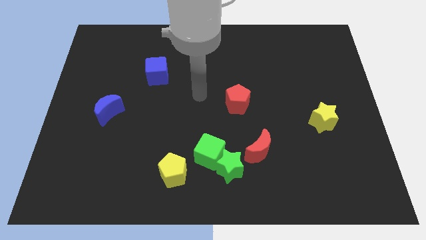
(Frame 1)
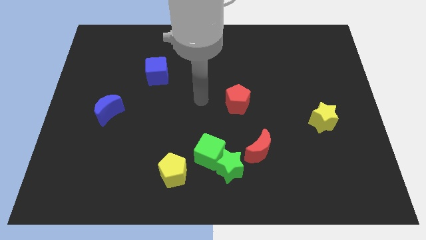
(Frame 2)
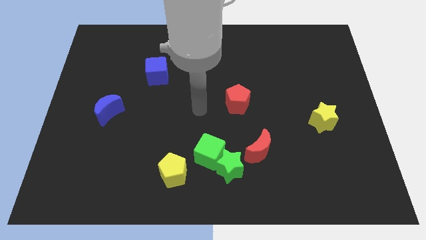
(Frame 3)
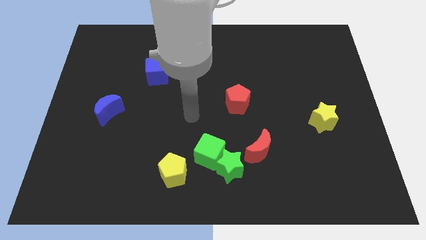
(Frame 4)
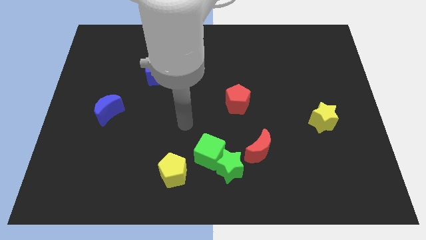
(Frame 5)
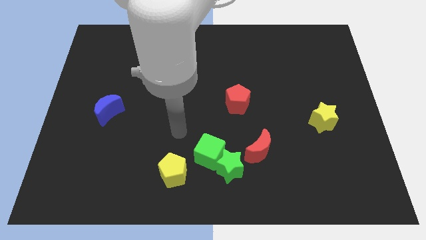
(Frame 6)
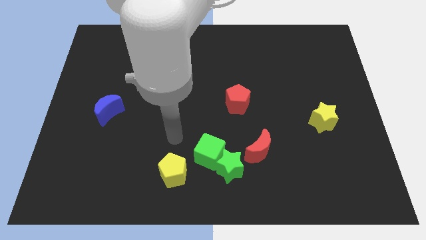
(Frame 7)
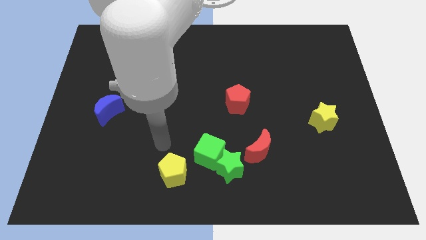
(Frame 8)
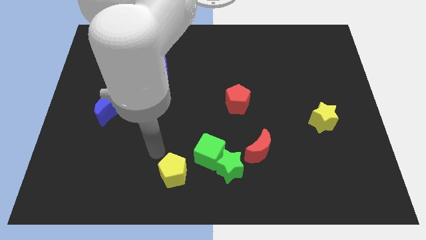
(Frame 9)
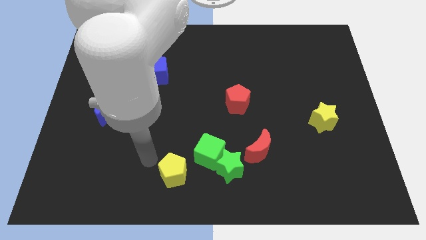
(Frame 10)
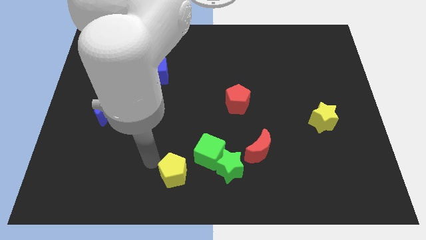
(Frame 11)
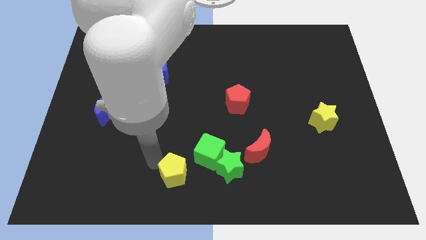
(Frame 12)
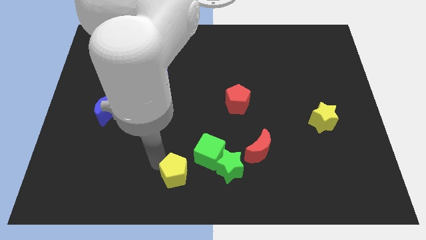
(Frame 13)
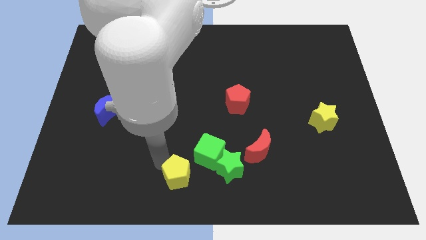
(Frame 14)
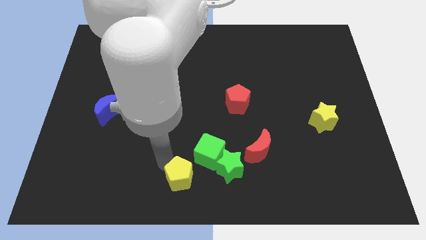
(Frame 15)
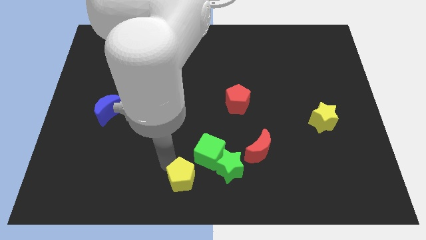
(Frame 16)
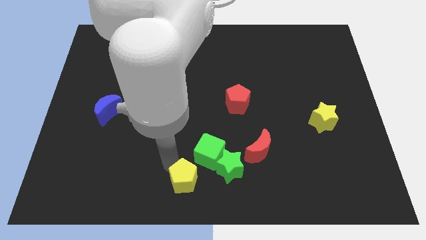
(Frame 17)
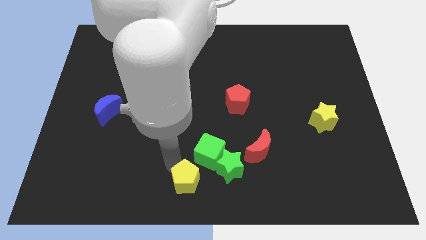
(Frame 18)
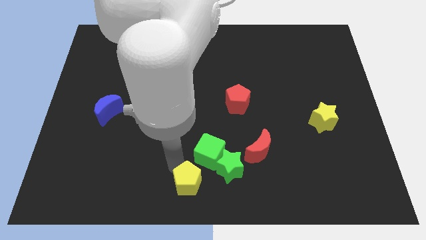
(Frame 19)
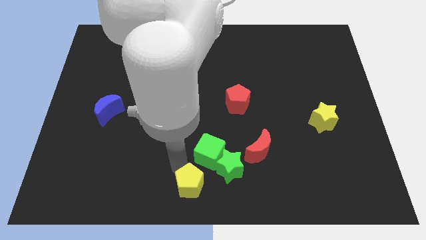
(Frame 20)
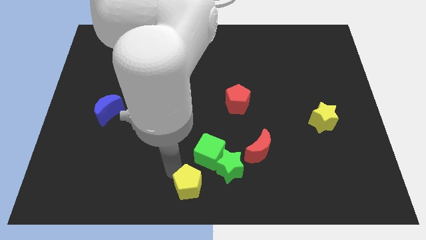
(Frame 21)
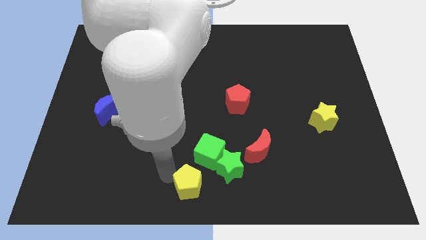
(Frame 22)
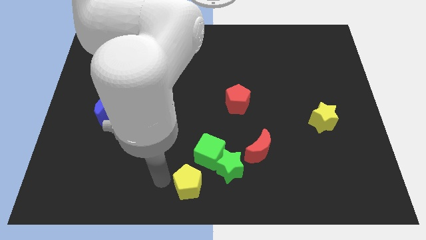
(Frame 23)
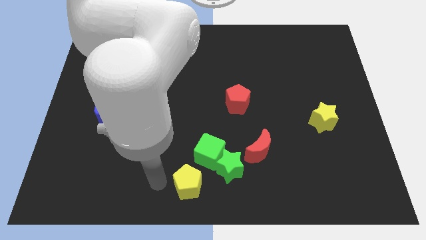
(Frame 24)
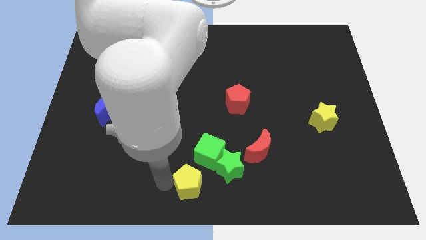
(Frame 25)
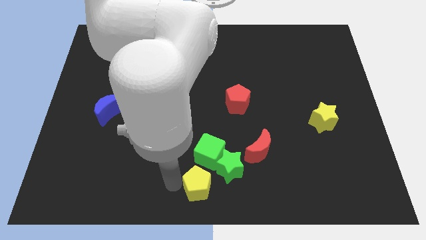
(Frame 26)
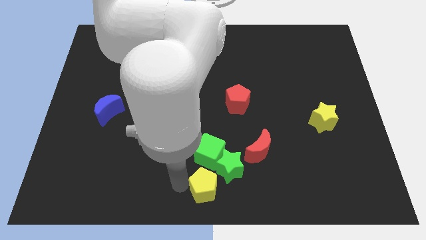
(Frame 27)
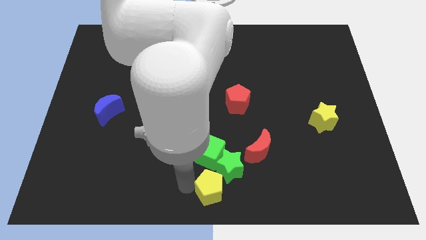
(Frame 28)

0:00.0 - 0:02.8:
move the yellow pentagon right a bit

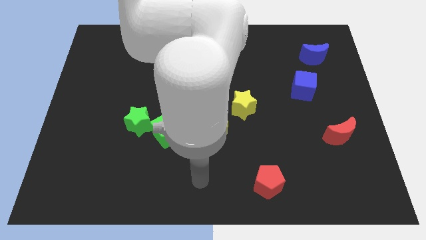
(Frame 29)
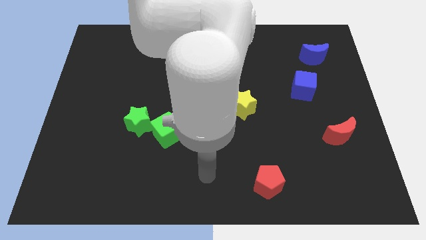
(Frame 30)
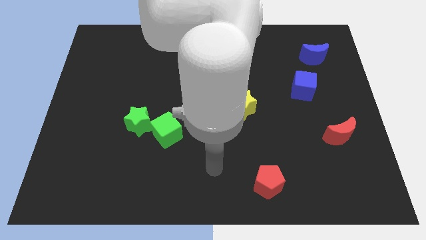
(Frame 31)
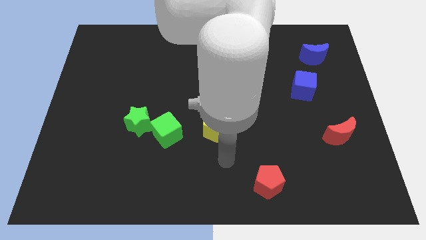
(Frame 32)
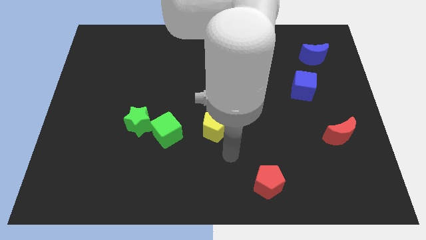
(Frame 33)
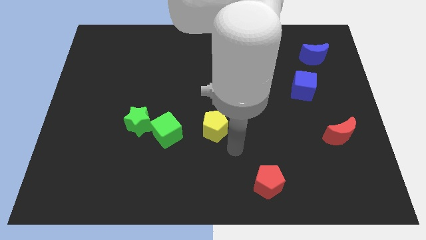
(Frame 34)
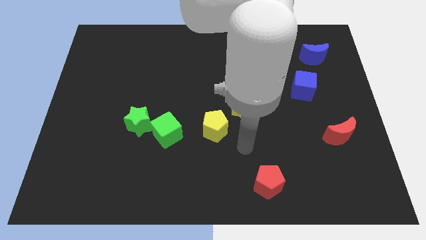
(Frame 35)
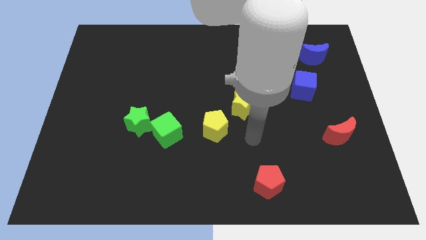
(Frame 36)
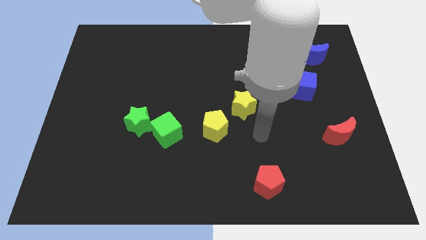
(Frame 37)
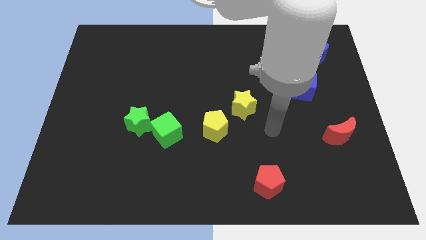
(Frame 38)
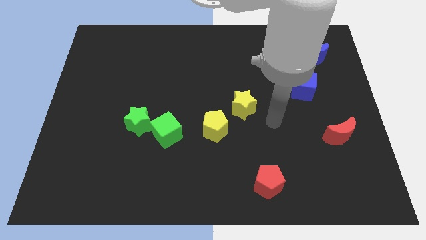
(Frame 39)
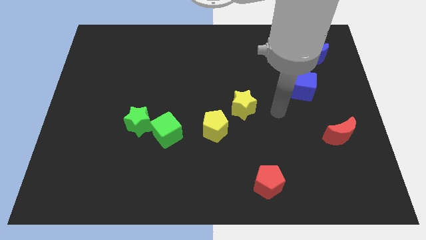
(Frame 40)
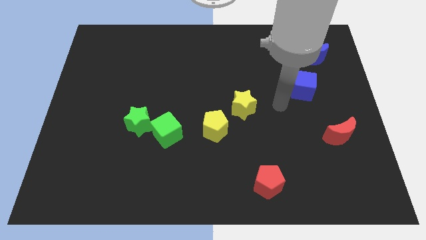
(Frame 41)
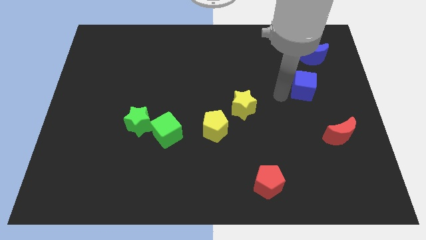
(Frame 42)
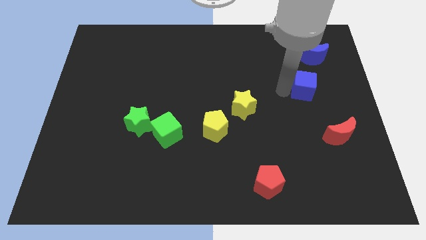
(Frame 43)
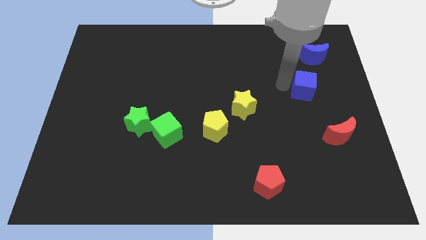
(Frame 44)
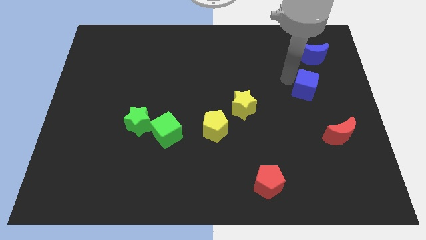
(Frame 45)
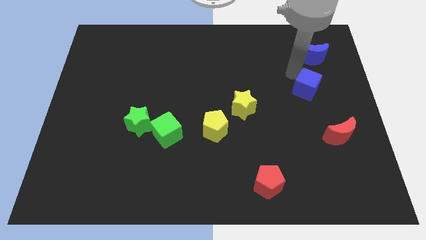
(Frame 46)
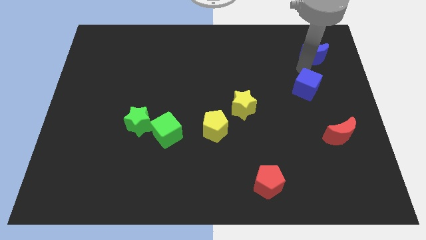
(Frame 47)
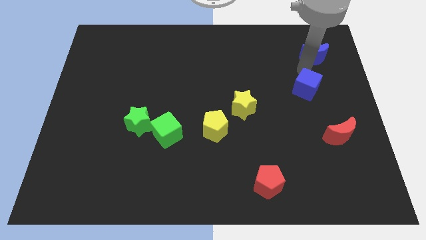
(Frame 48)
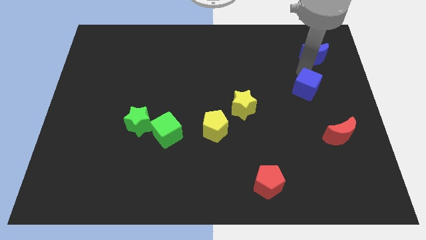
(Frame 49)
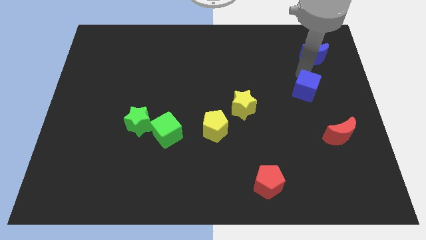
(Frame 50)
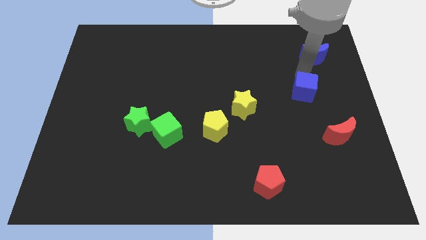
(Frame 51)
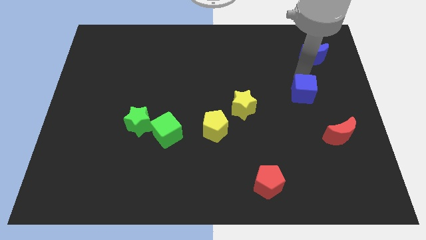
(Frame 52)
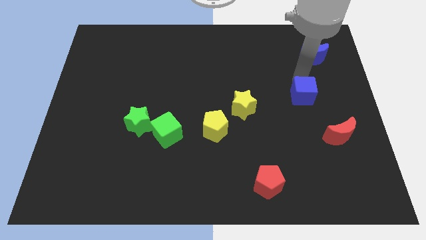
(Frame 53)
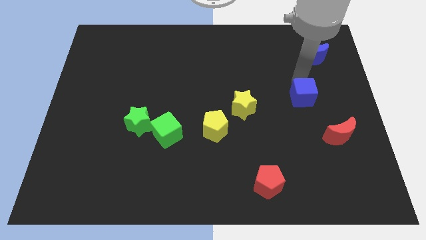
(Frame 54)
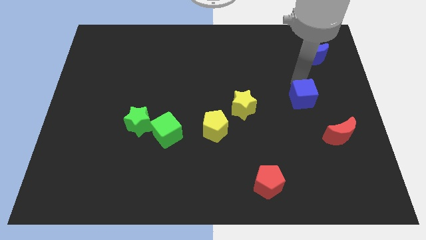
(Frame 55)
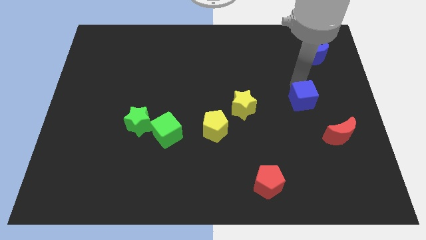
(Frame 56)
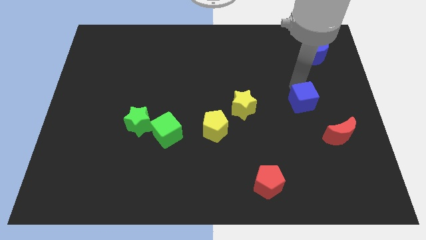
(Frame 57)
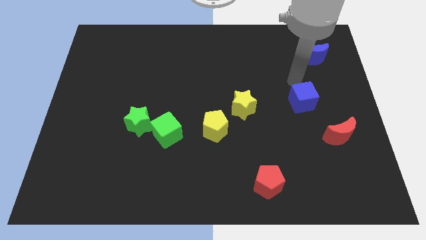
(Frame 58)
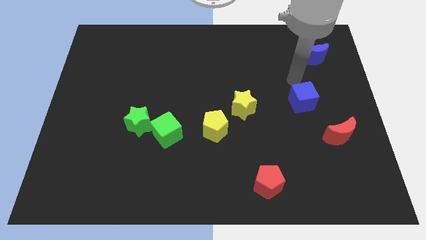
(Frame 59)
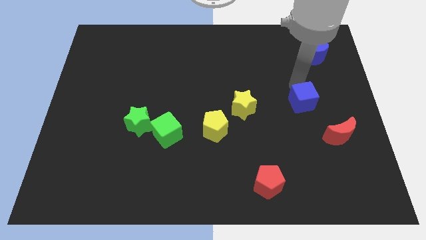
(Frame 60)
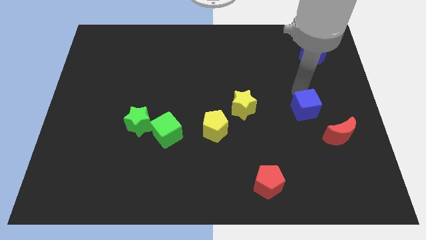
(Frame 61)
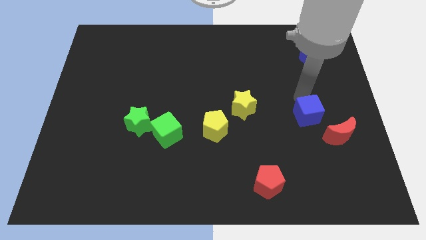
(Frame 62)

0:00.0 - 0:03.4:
slide the blue cube downwards a little

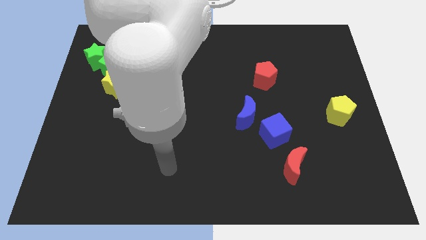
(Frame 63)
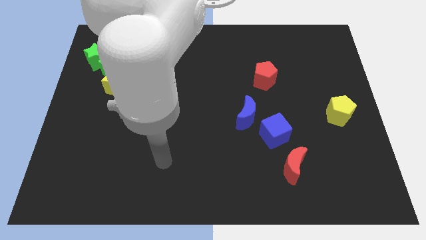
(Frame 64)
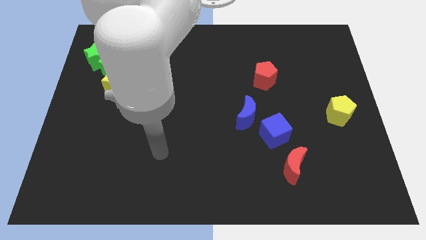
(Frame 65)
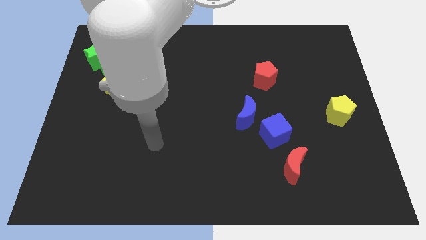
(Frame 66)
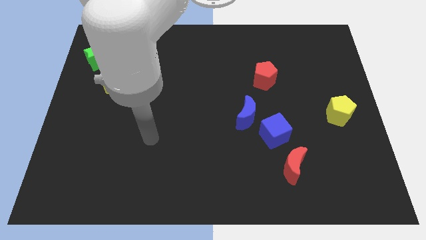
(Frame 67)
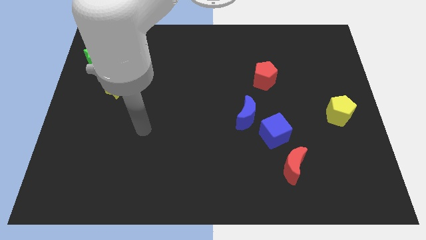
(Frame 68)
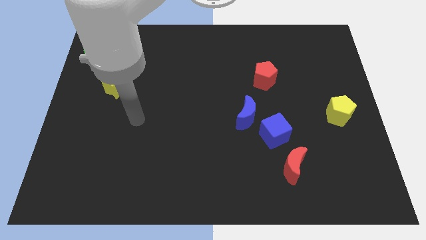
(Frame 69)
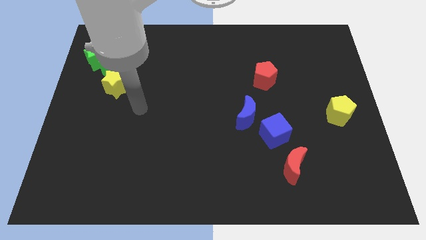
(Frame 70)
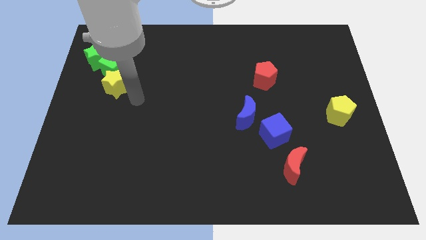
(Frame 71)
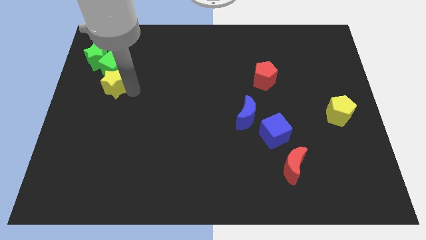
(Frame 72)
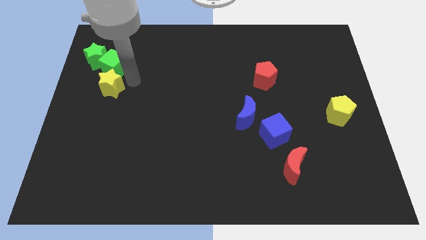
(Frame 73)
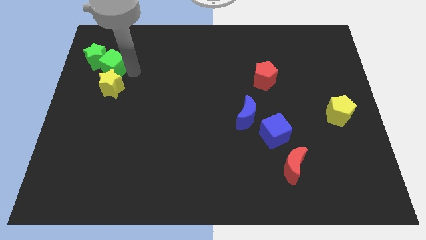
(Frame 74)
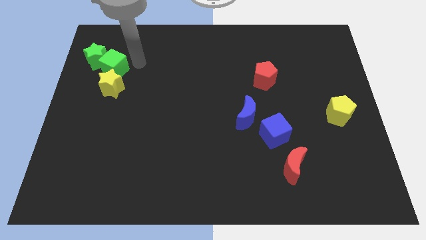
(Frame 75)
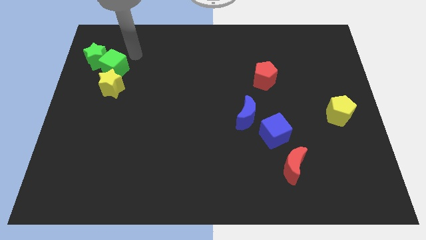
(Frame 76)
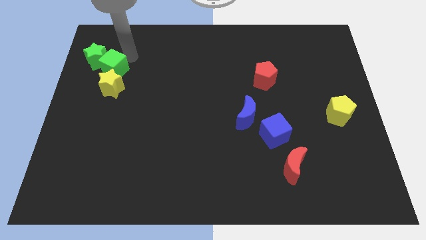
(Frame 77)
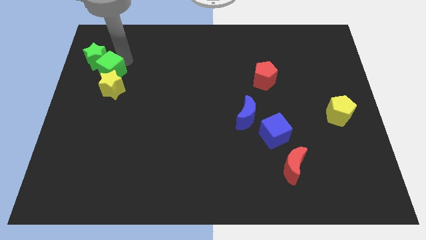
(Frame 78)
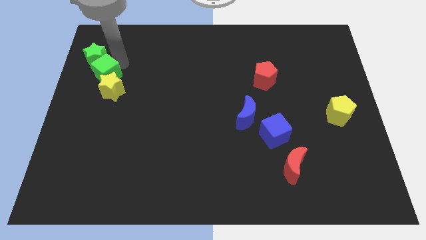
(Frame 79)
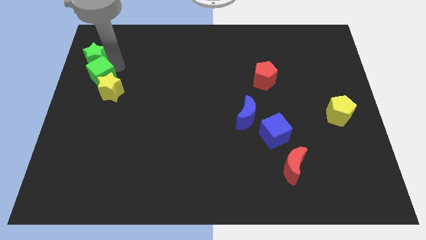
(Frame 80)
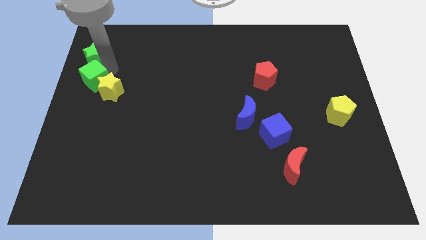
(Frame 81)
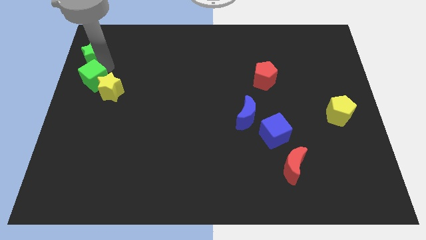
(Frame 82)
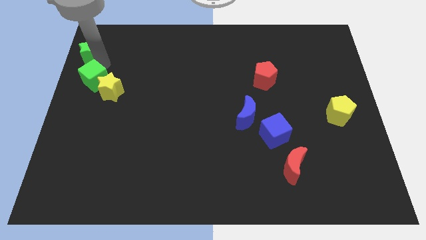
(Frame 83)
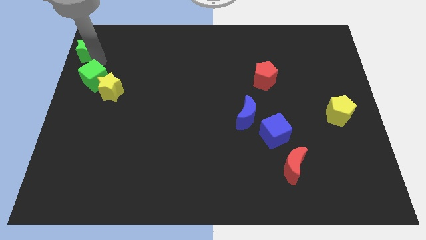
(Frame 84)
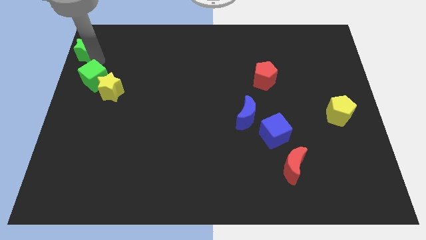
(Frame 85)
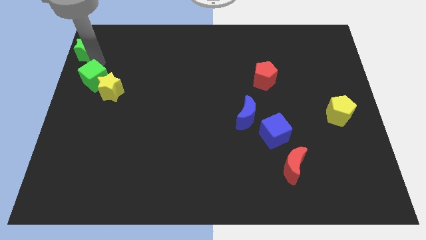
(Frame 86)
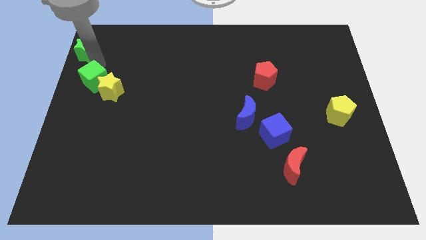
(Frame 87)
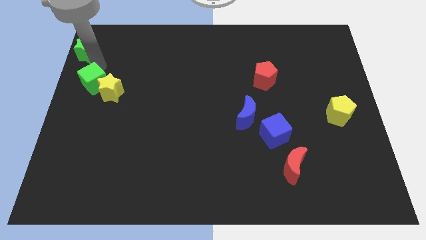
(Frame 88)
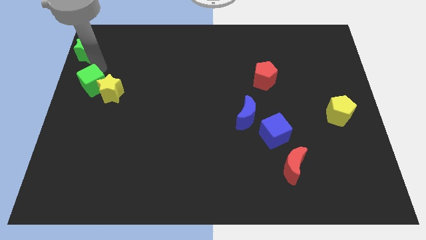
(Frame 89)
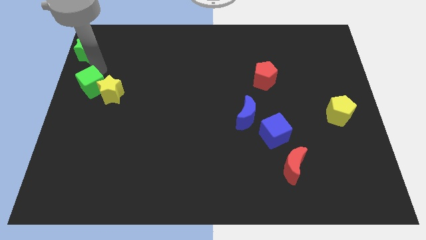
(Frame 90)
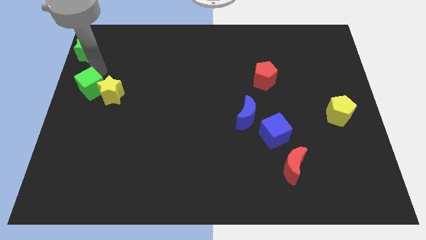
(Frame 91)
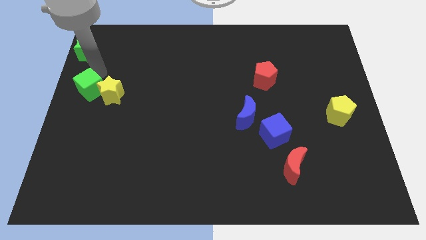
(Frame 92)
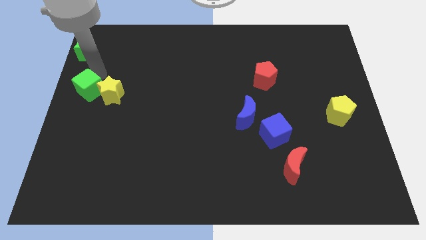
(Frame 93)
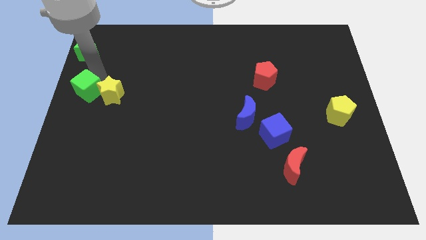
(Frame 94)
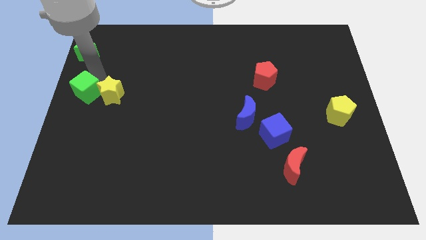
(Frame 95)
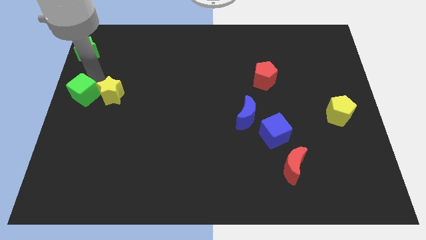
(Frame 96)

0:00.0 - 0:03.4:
slide the green cube down slightly
